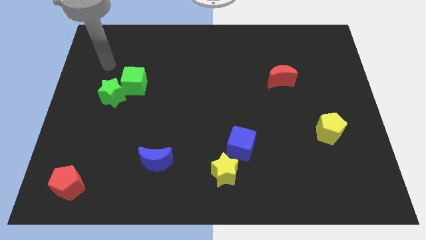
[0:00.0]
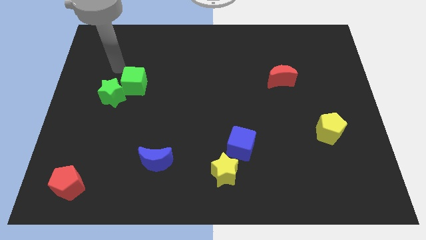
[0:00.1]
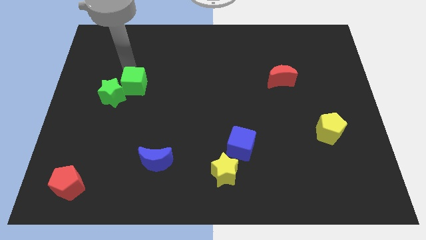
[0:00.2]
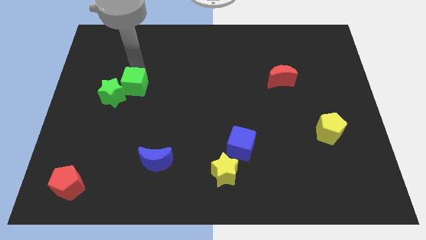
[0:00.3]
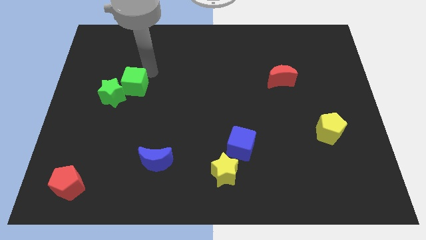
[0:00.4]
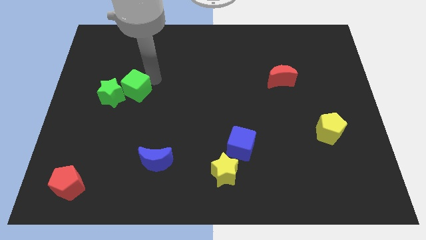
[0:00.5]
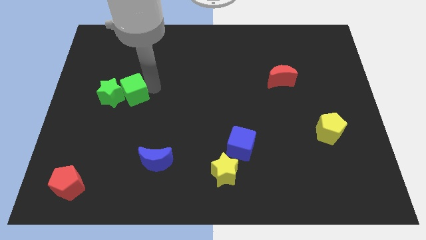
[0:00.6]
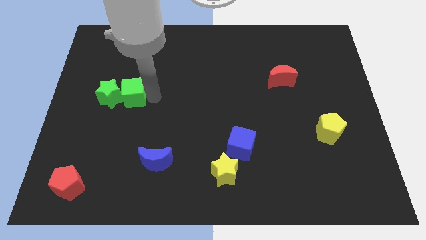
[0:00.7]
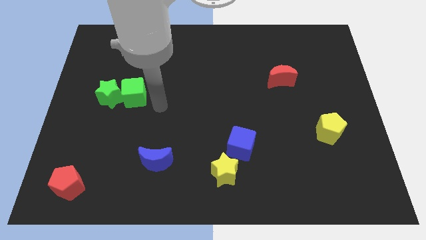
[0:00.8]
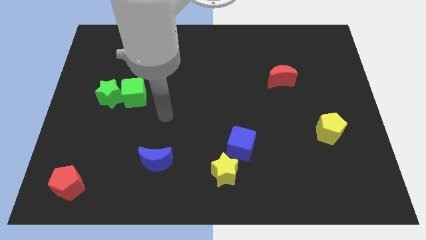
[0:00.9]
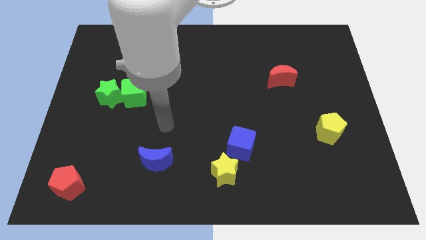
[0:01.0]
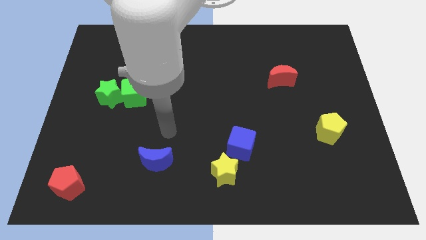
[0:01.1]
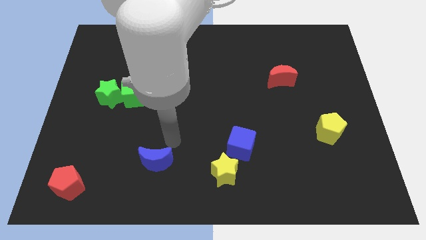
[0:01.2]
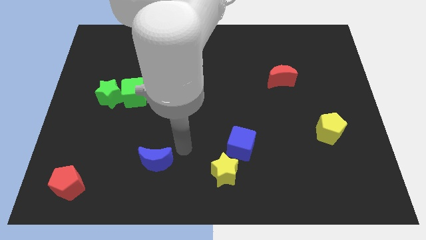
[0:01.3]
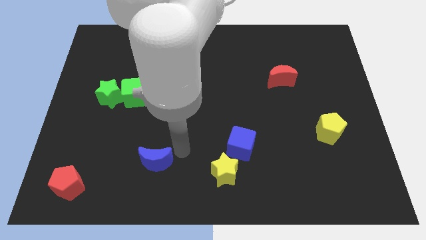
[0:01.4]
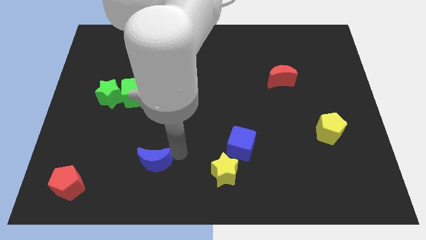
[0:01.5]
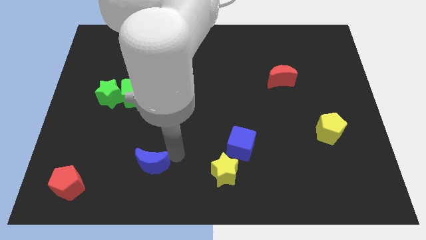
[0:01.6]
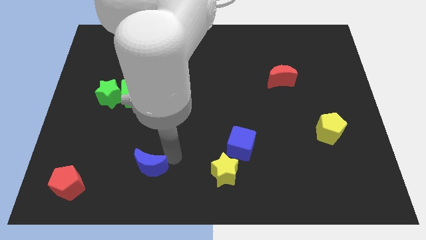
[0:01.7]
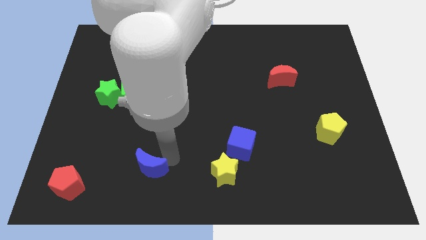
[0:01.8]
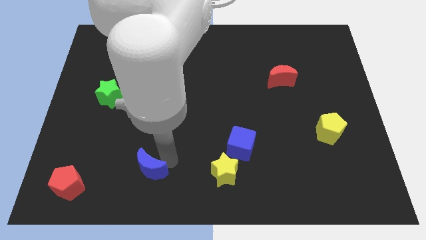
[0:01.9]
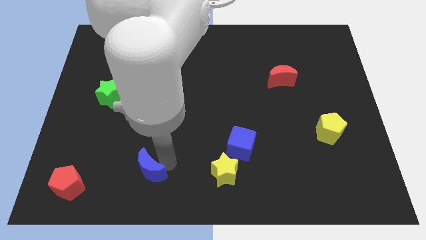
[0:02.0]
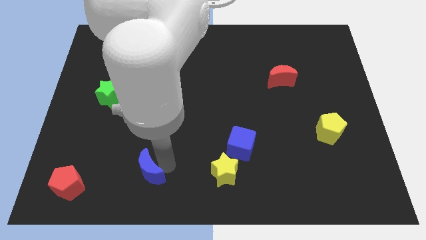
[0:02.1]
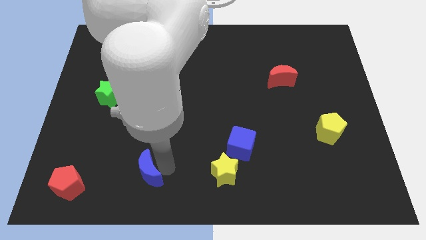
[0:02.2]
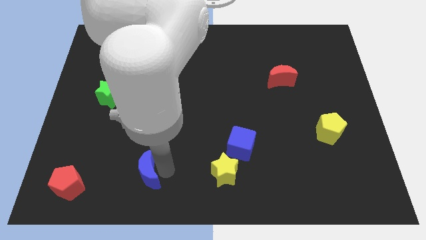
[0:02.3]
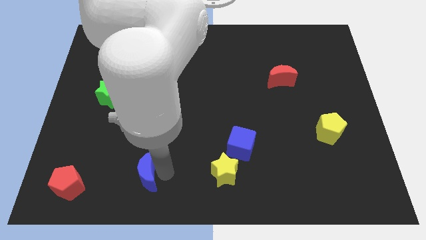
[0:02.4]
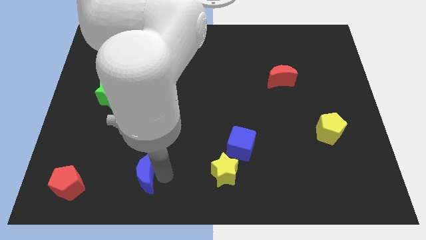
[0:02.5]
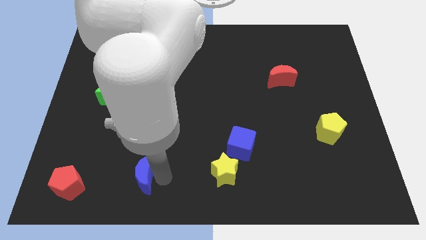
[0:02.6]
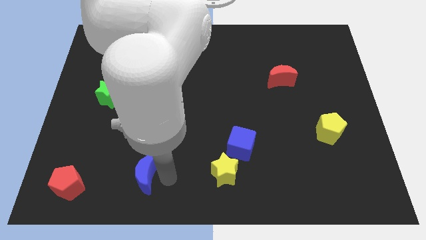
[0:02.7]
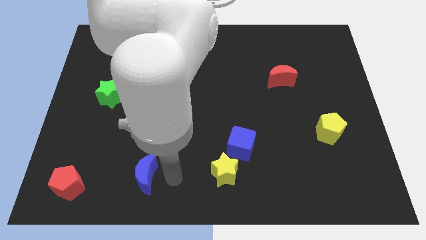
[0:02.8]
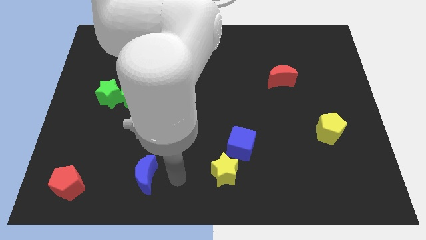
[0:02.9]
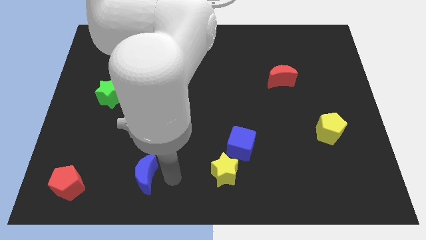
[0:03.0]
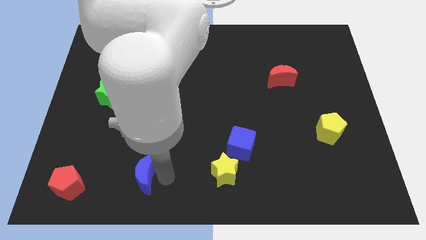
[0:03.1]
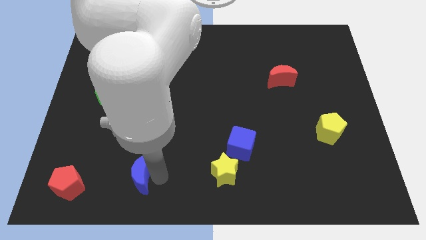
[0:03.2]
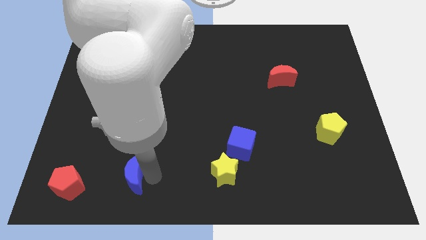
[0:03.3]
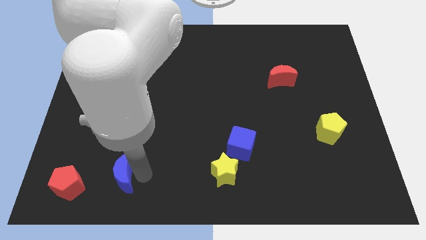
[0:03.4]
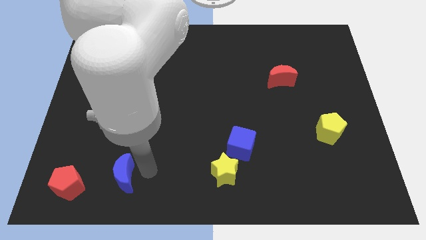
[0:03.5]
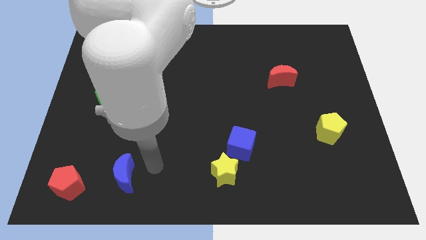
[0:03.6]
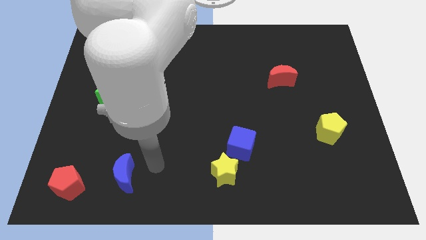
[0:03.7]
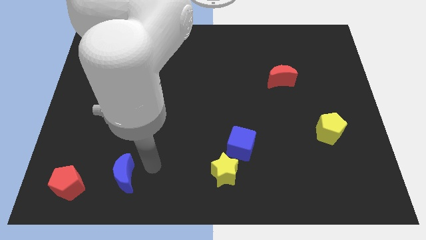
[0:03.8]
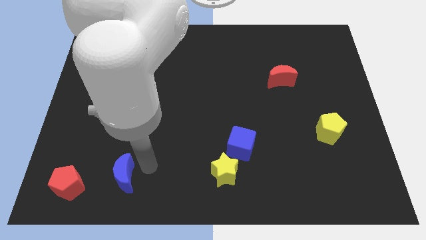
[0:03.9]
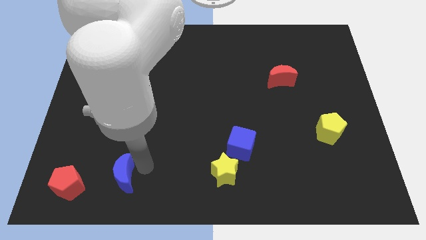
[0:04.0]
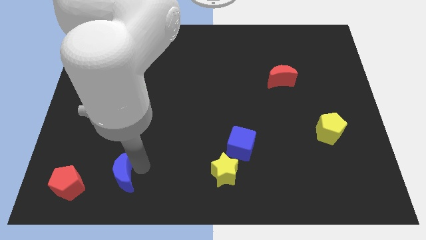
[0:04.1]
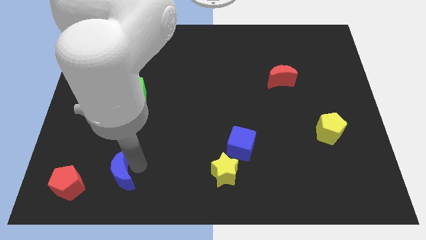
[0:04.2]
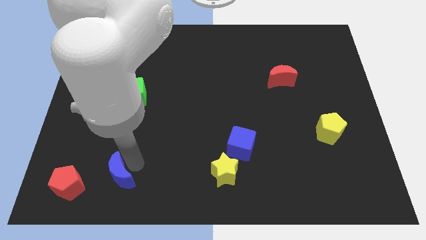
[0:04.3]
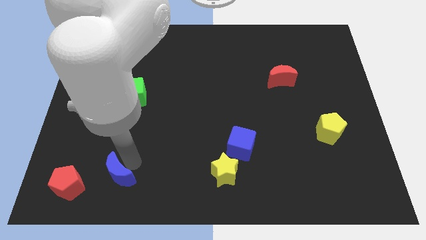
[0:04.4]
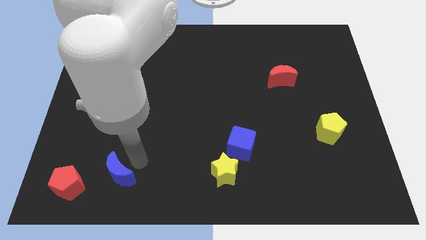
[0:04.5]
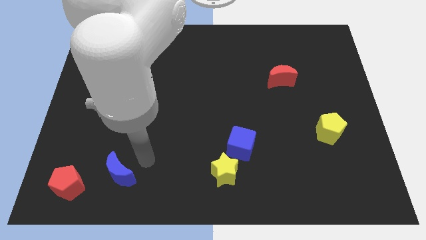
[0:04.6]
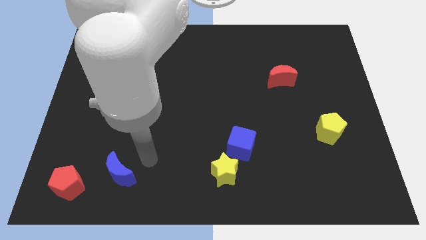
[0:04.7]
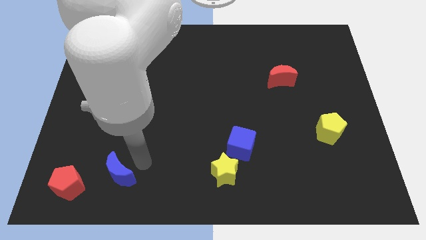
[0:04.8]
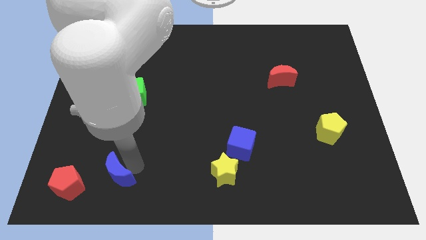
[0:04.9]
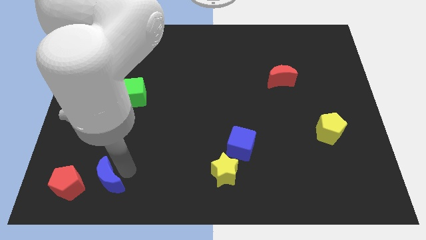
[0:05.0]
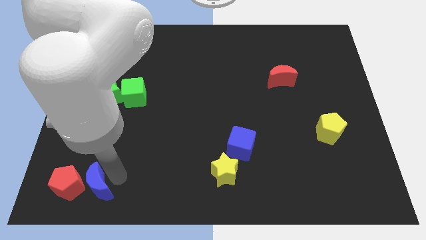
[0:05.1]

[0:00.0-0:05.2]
slide the blue moon next to the red pentagon

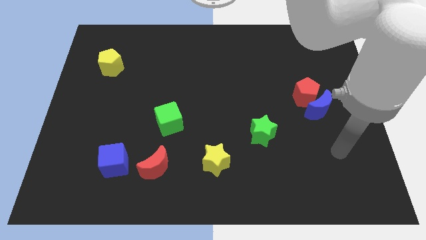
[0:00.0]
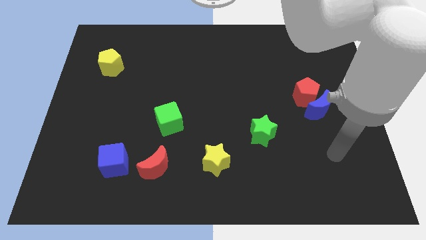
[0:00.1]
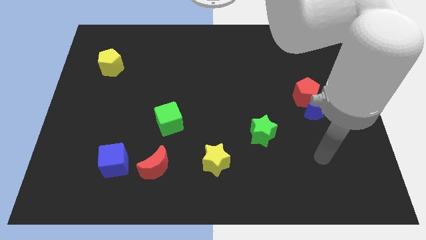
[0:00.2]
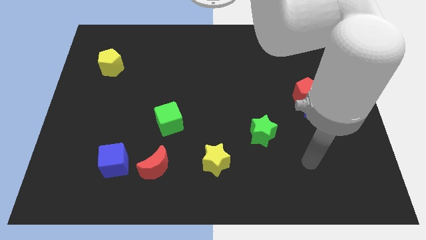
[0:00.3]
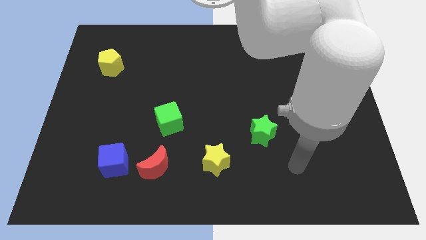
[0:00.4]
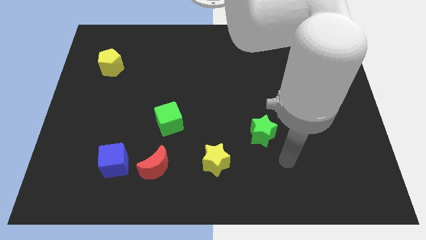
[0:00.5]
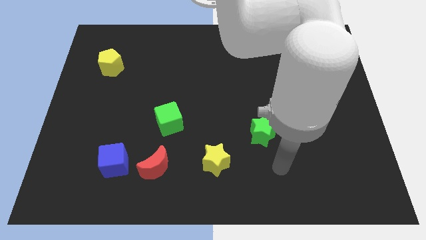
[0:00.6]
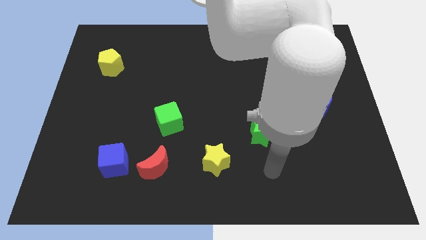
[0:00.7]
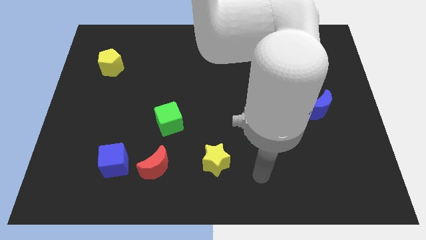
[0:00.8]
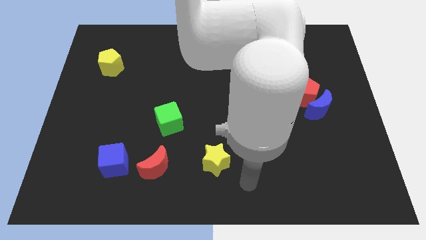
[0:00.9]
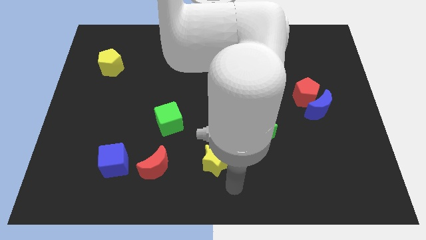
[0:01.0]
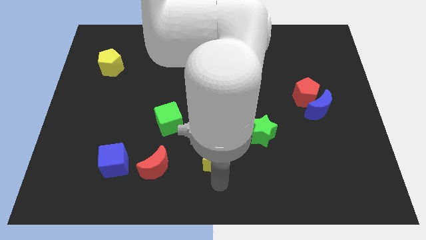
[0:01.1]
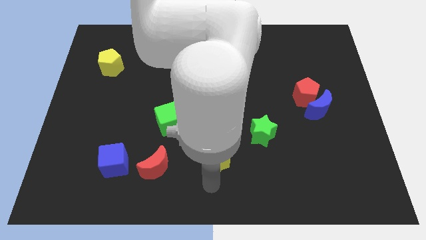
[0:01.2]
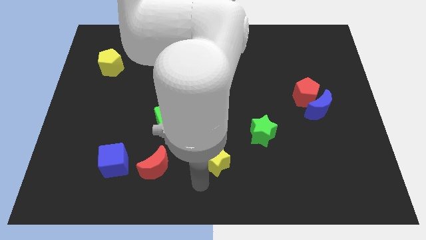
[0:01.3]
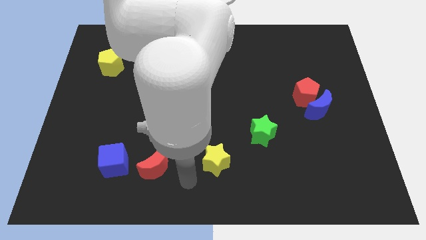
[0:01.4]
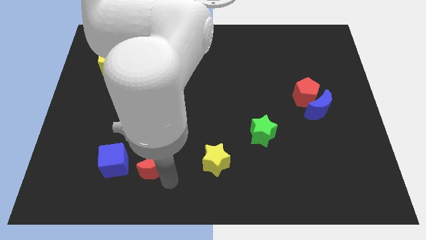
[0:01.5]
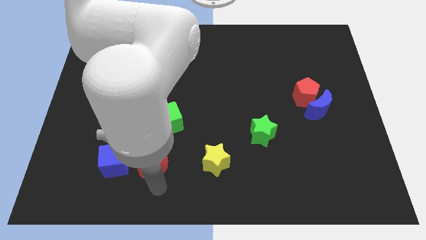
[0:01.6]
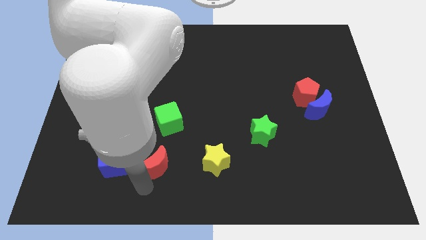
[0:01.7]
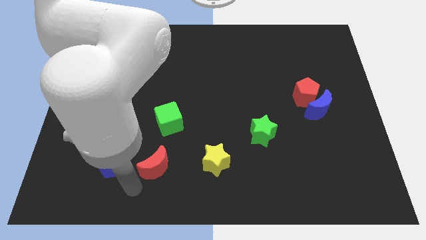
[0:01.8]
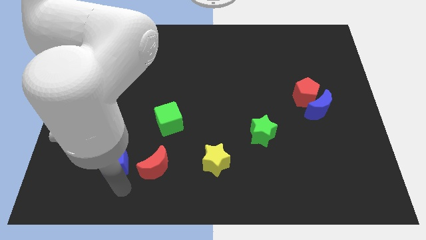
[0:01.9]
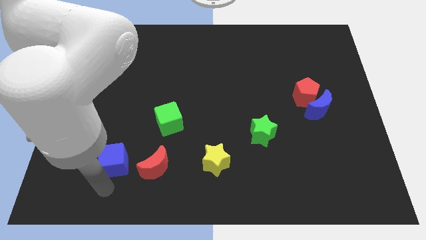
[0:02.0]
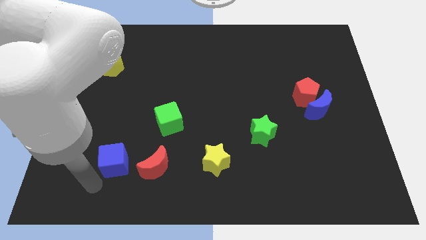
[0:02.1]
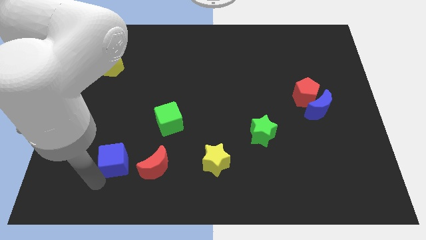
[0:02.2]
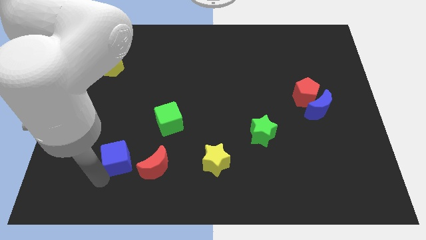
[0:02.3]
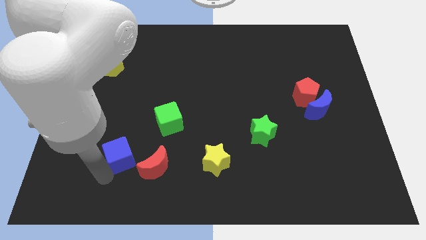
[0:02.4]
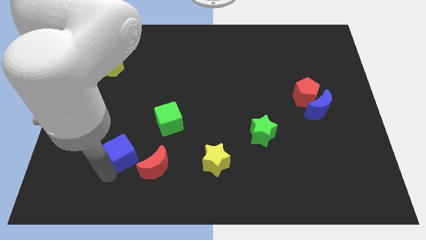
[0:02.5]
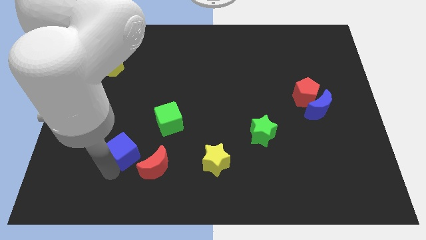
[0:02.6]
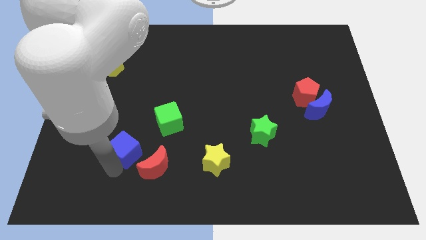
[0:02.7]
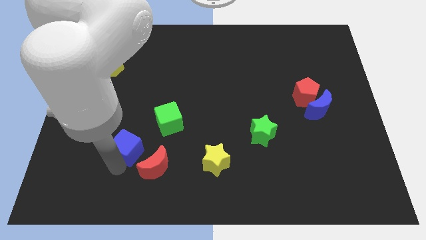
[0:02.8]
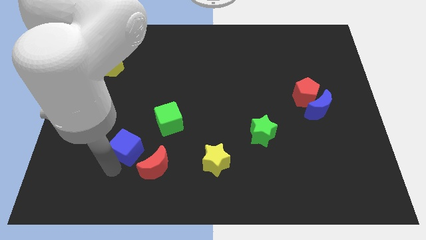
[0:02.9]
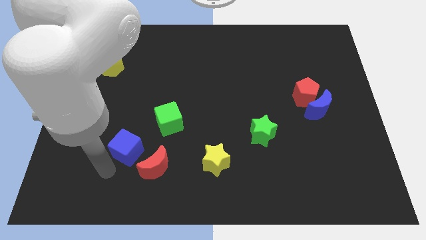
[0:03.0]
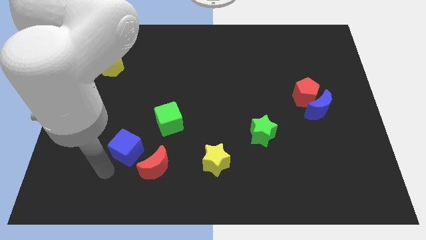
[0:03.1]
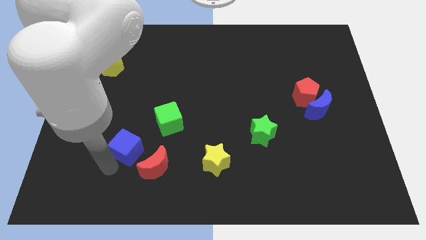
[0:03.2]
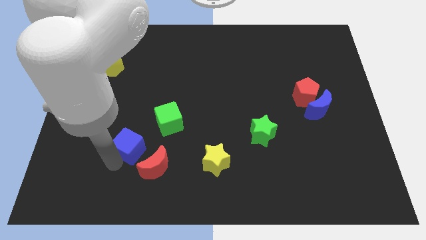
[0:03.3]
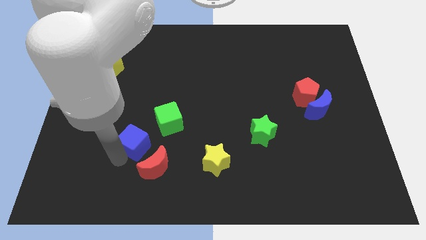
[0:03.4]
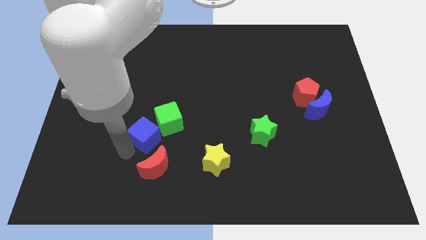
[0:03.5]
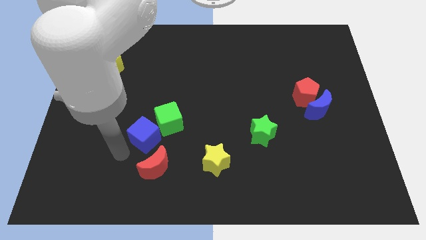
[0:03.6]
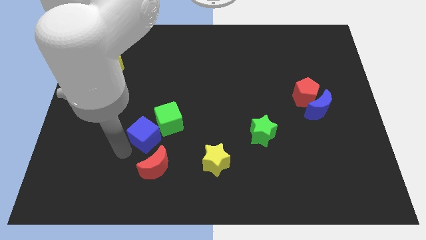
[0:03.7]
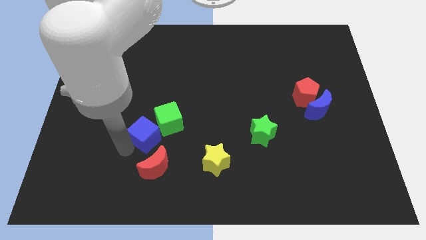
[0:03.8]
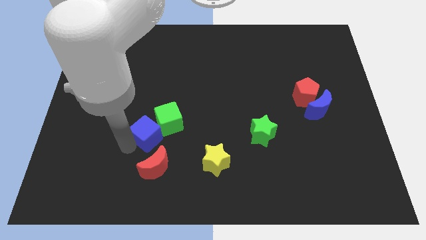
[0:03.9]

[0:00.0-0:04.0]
push the blue cube next to the green cube
